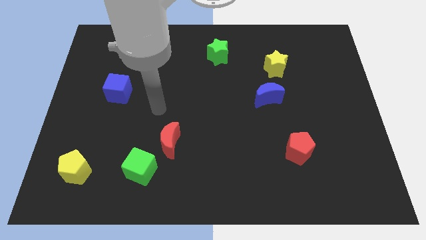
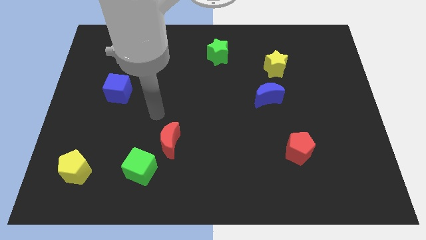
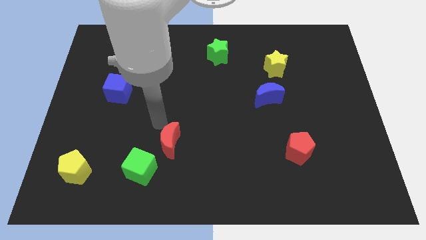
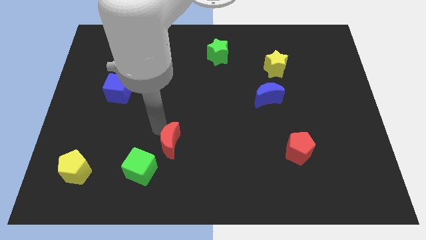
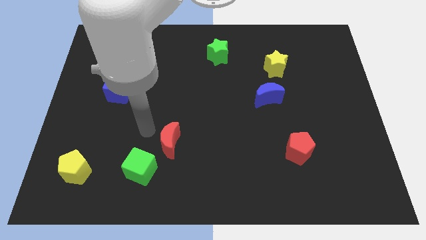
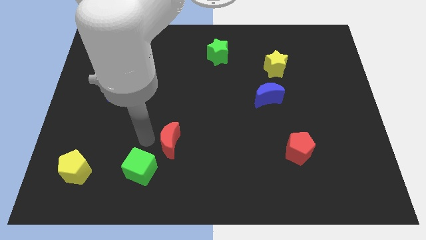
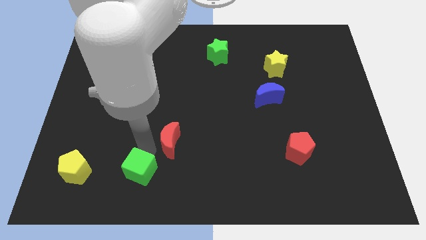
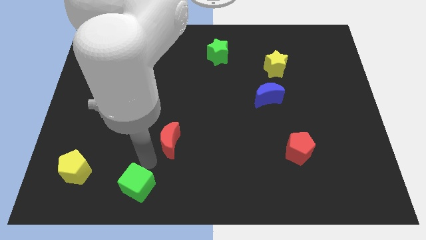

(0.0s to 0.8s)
separate the red moon from the green cube

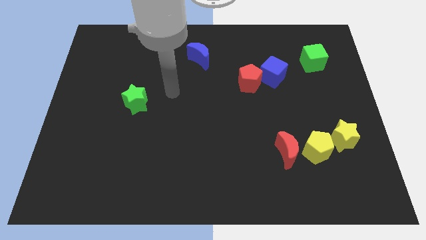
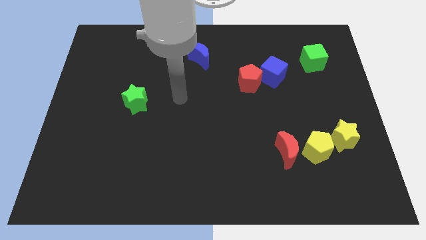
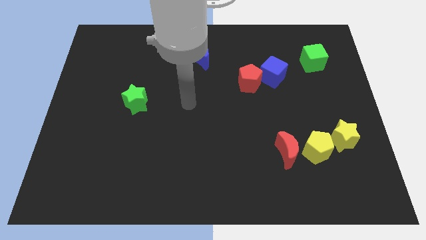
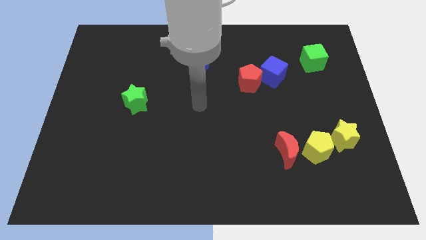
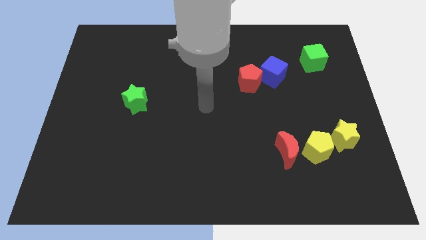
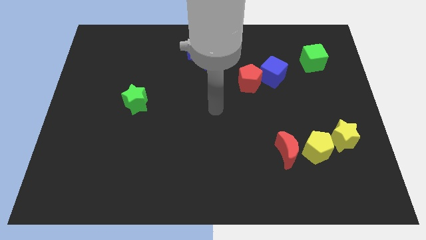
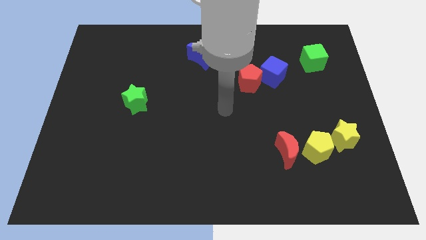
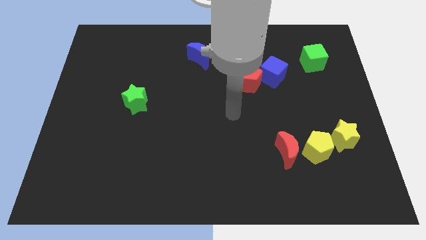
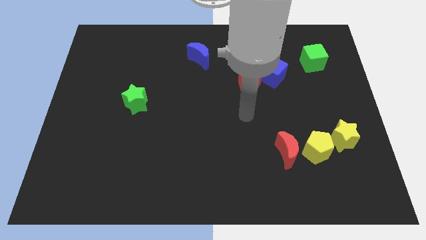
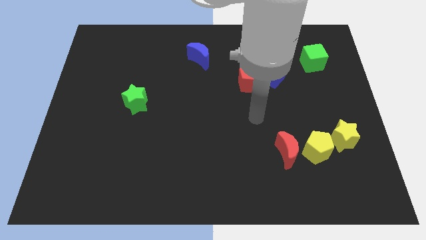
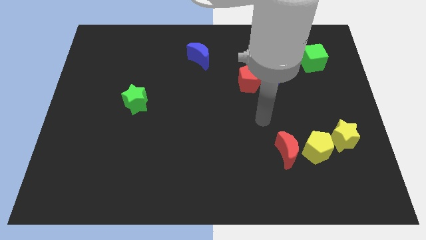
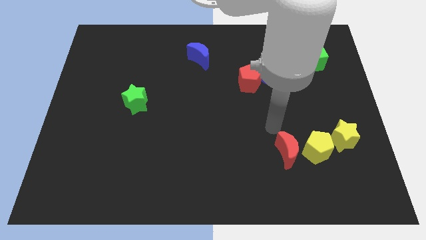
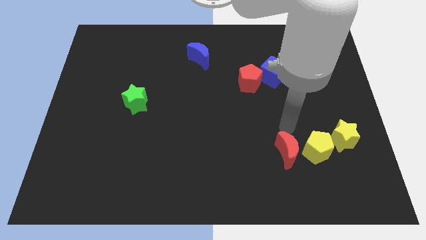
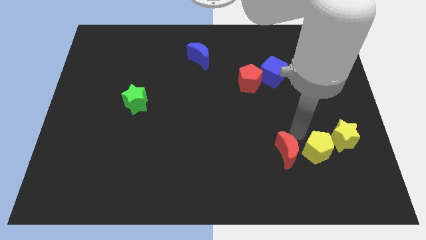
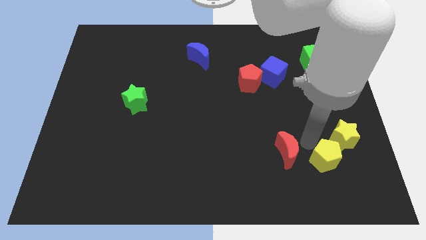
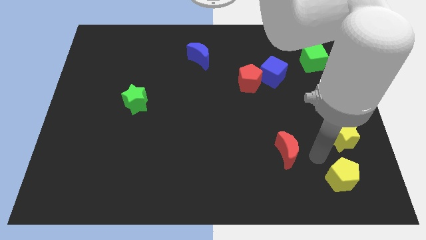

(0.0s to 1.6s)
separate the red moon from the yellow pentagon

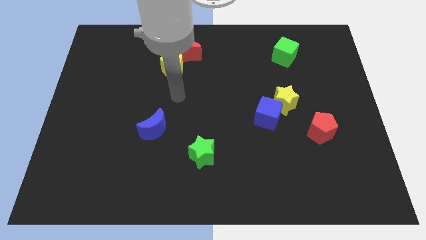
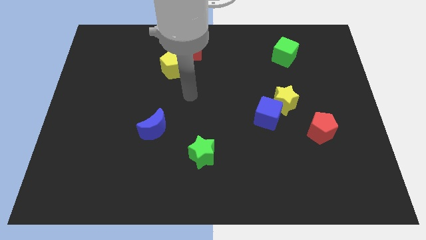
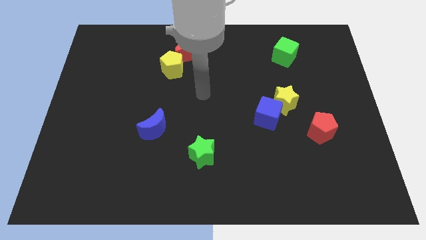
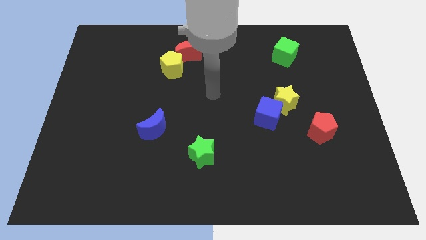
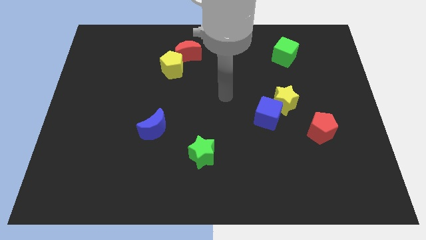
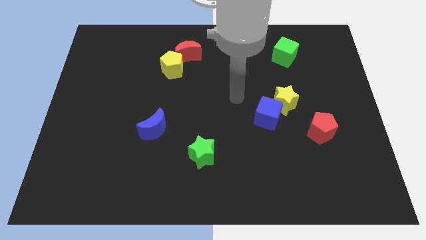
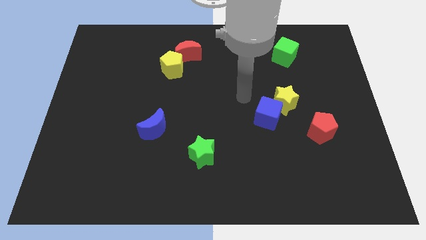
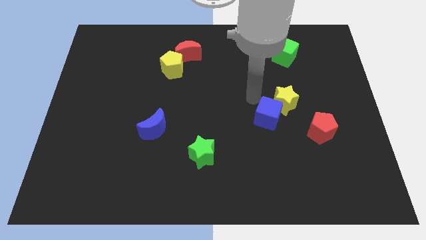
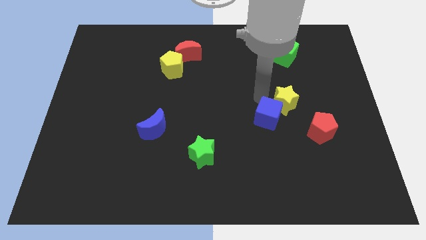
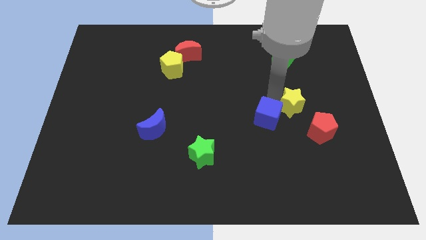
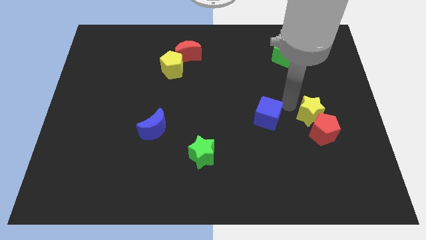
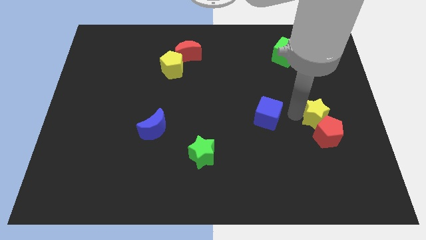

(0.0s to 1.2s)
separate the blue cube from the yellow star

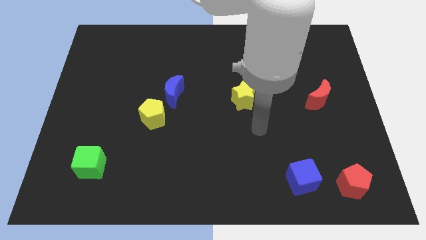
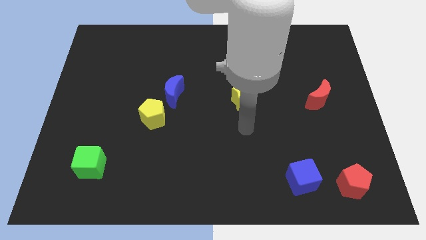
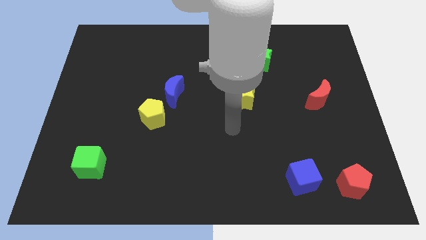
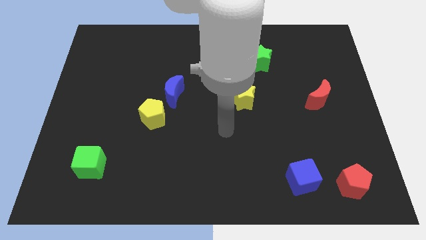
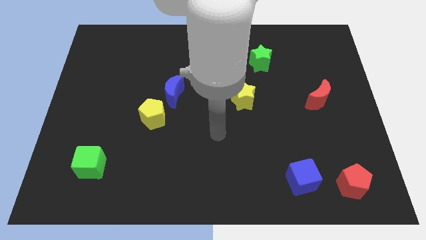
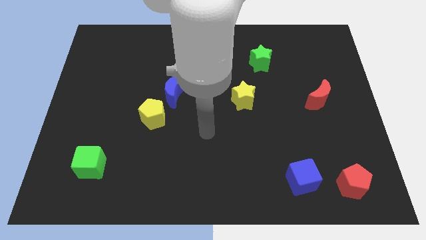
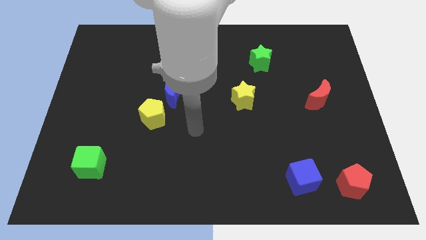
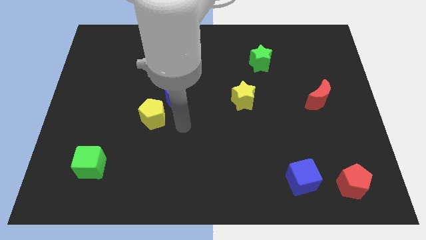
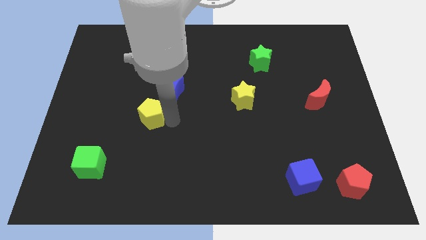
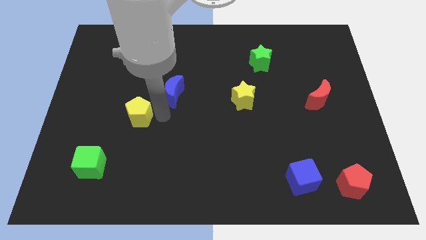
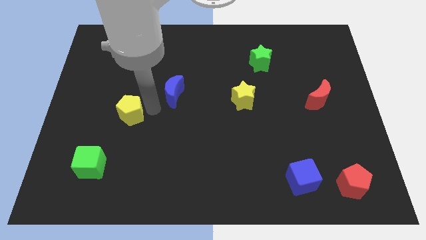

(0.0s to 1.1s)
move the blue moon away from the yellow pentagon

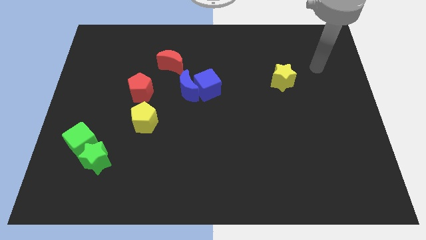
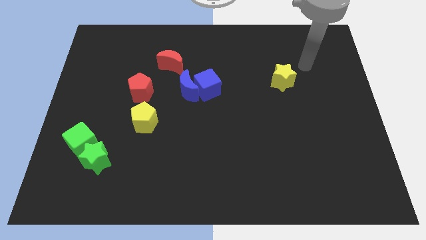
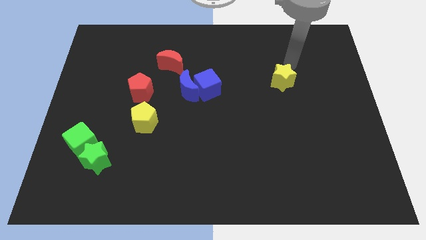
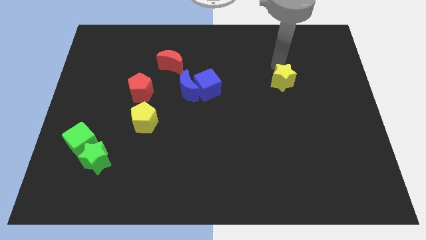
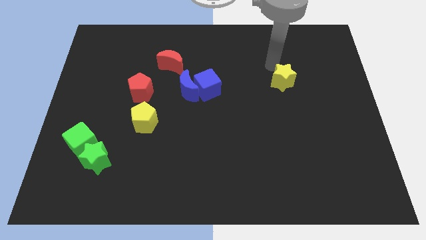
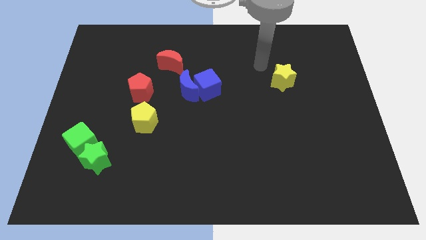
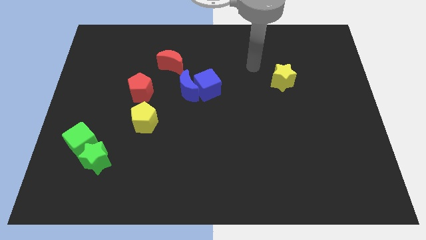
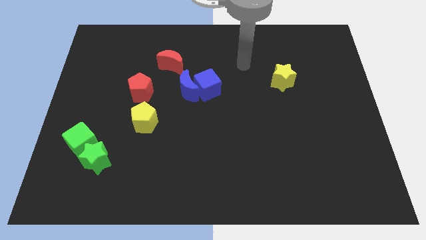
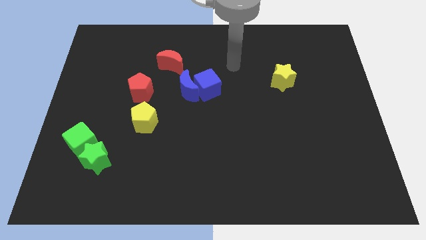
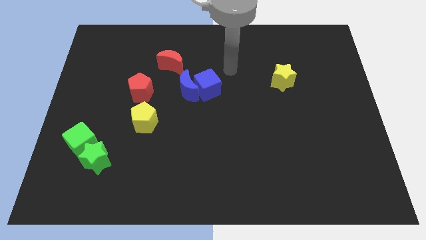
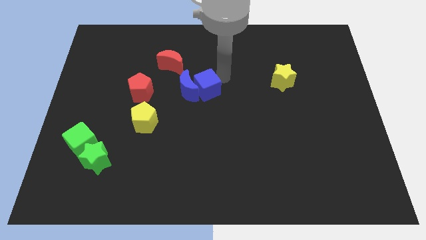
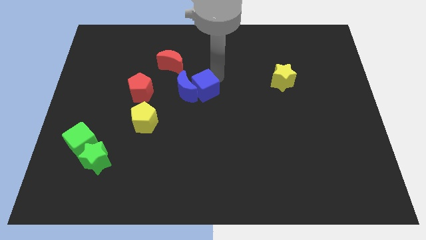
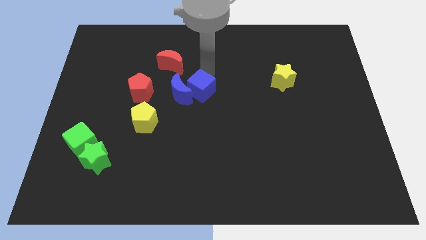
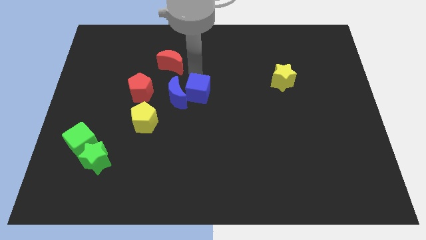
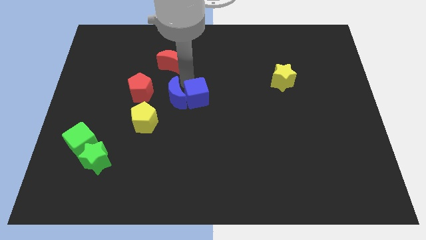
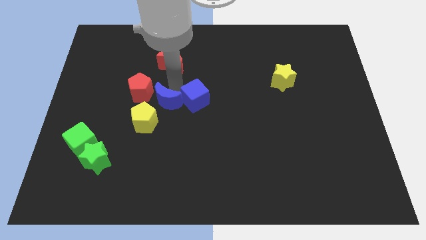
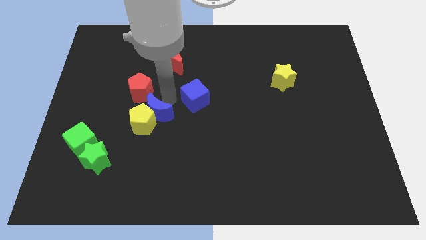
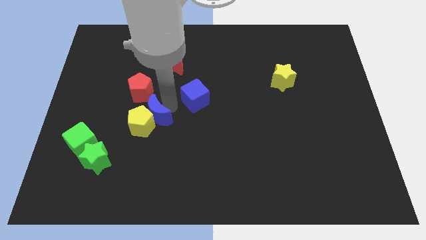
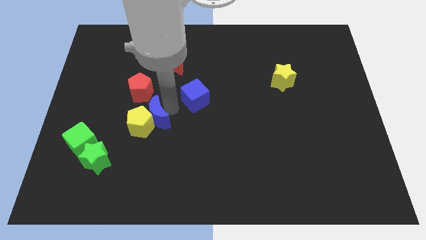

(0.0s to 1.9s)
move the blue cube away from the blue moon

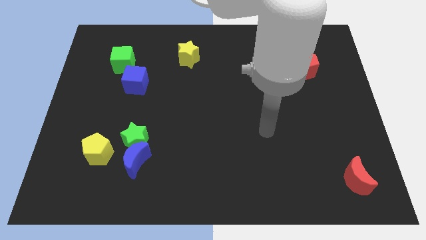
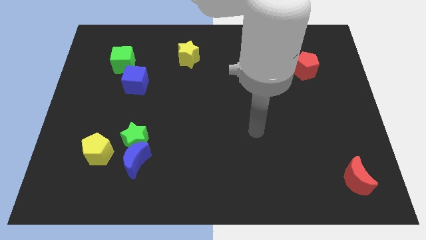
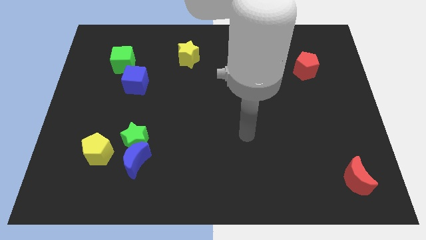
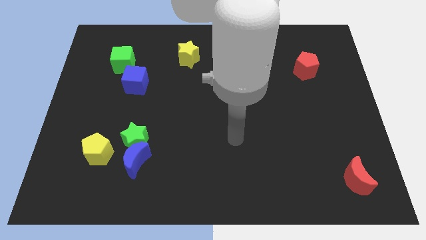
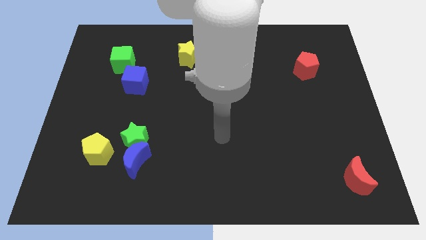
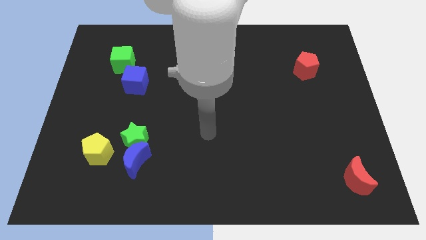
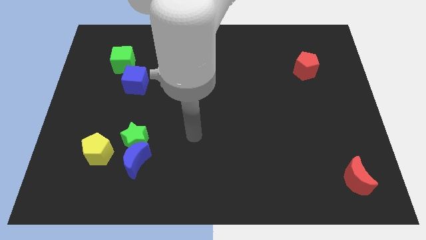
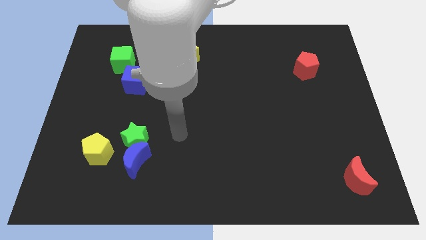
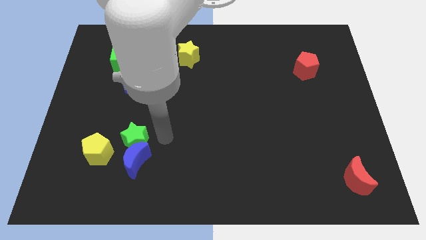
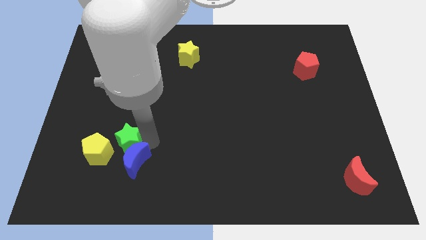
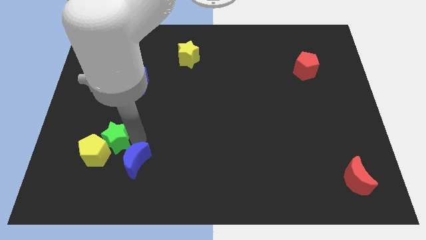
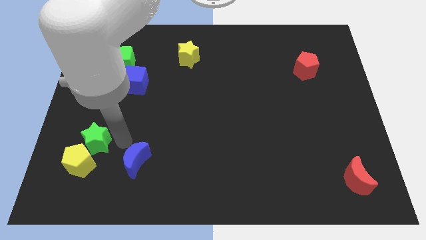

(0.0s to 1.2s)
pull the blue moon apart from the green star and yellow pentagon

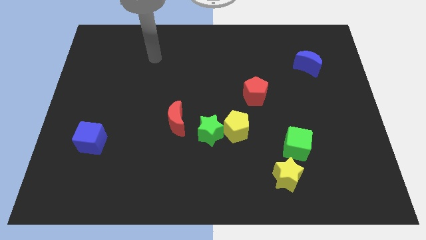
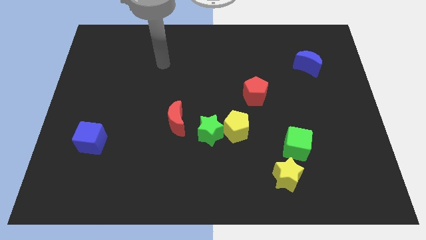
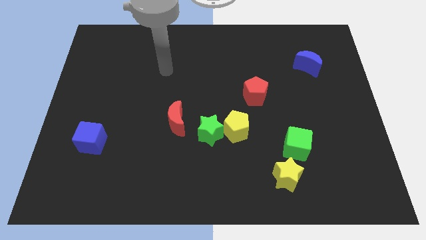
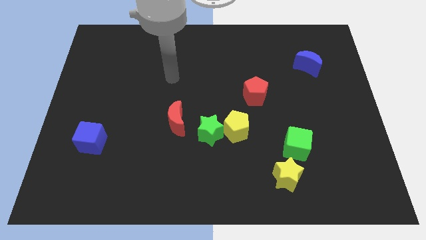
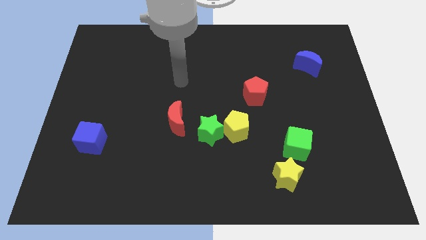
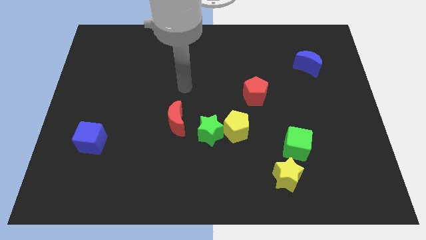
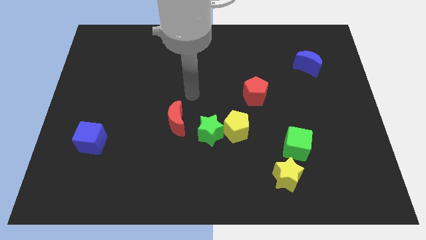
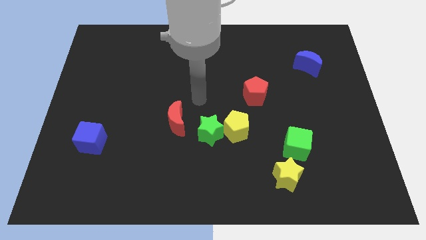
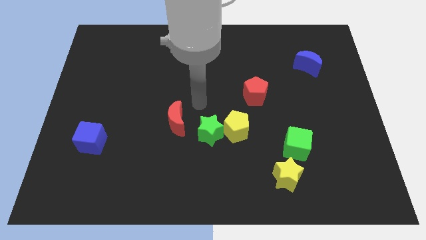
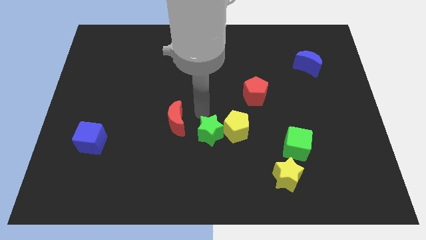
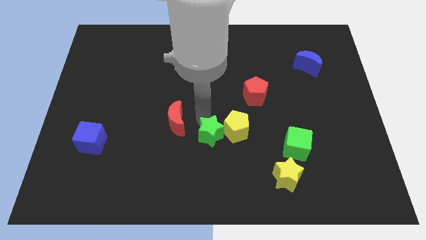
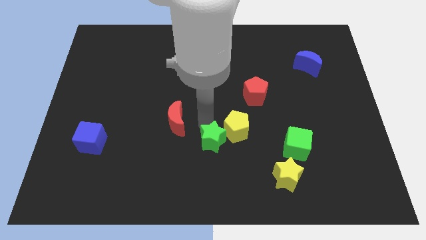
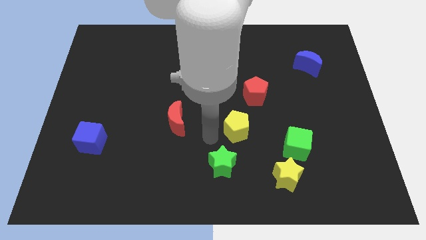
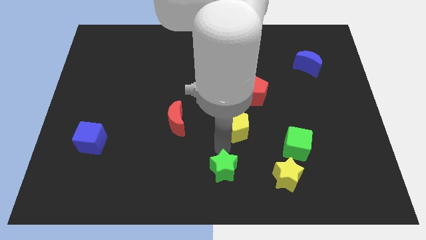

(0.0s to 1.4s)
move the yellow pentagon away from the green star

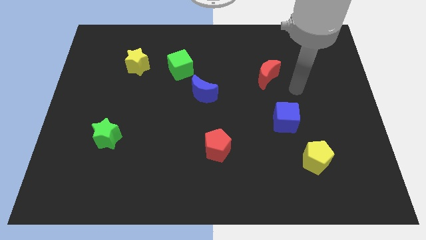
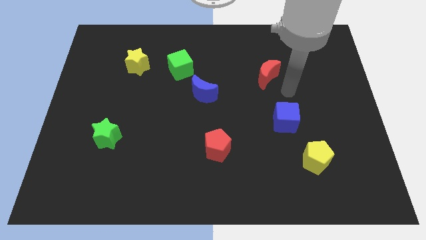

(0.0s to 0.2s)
move the blue moon away from the green cube
